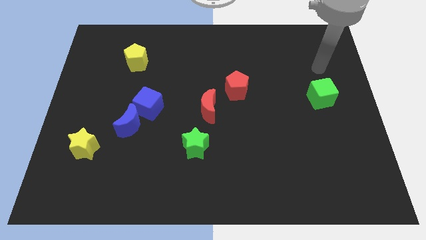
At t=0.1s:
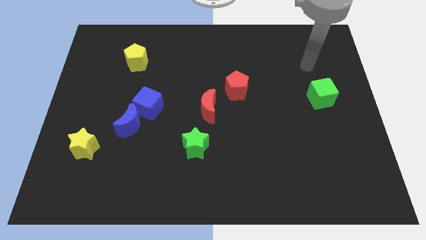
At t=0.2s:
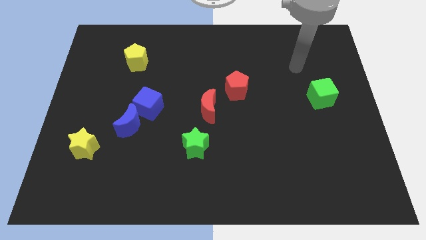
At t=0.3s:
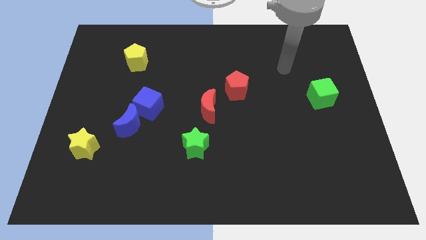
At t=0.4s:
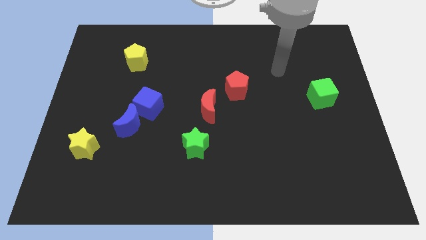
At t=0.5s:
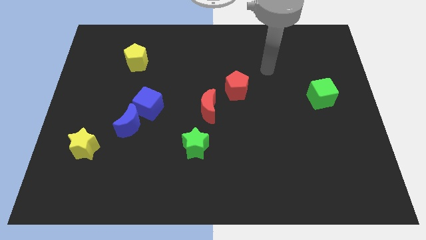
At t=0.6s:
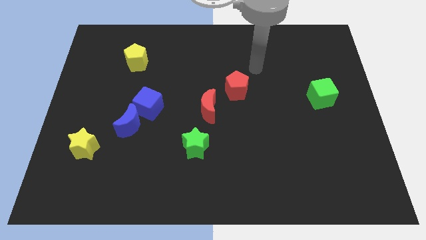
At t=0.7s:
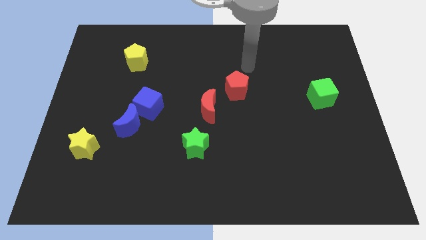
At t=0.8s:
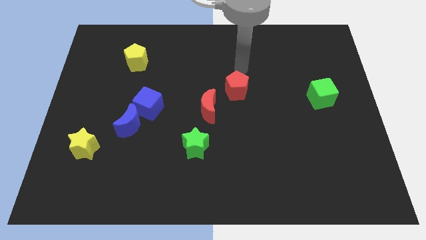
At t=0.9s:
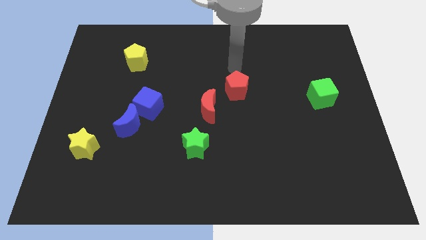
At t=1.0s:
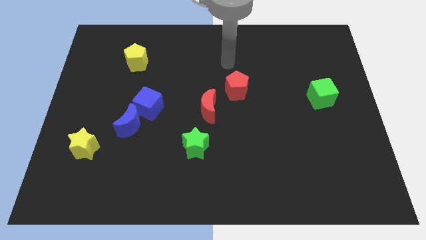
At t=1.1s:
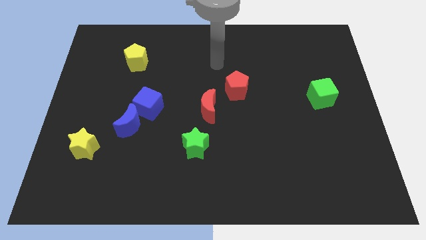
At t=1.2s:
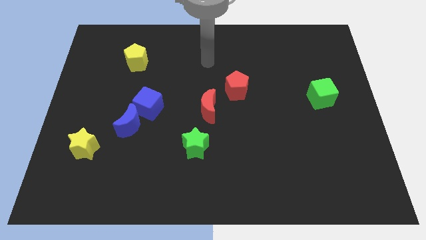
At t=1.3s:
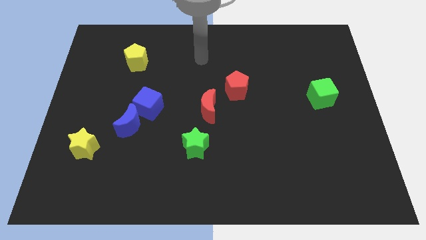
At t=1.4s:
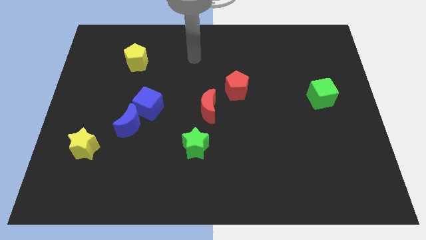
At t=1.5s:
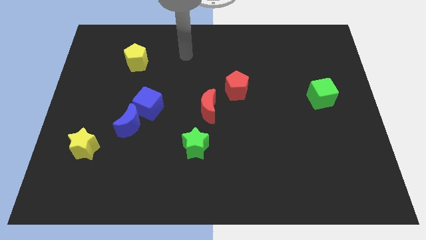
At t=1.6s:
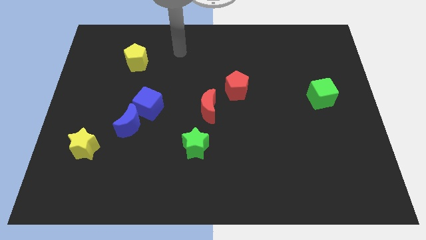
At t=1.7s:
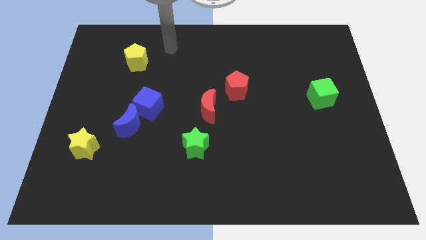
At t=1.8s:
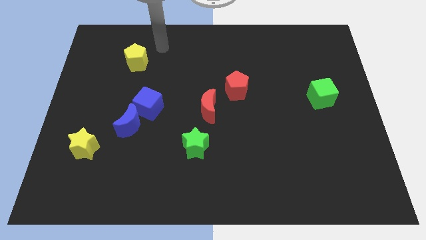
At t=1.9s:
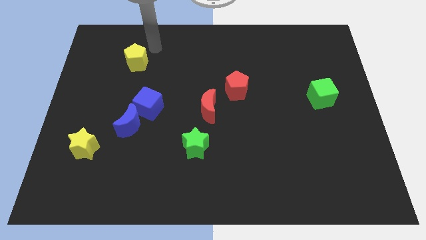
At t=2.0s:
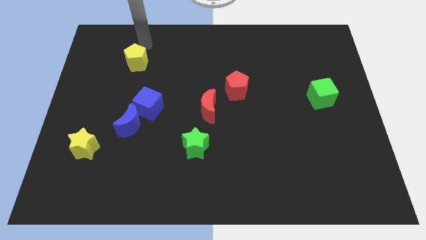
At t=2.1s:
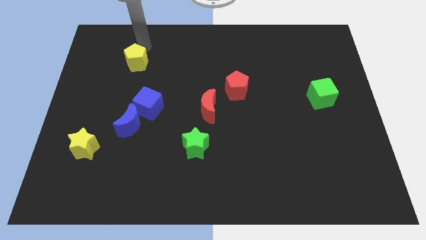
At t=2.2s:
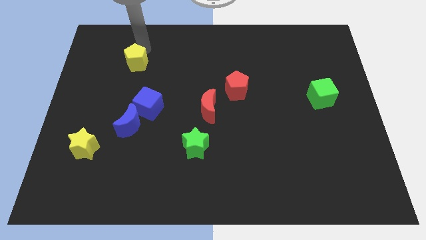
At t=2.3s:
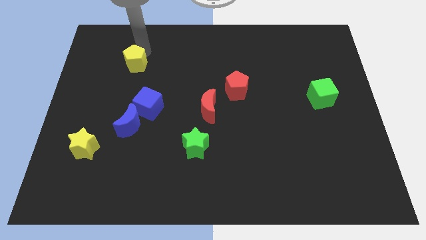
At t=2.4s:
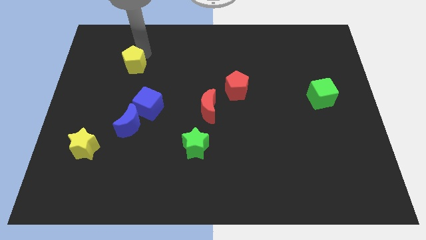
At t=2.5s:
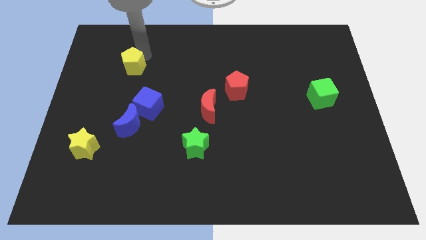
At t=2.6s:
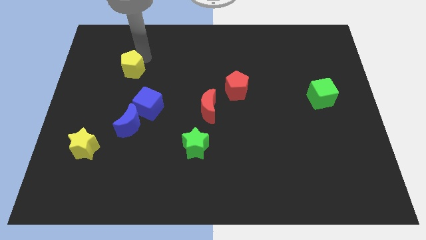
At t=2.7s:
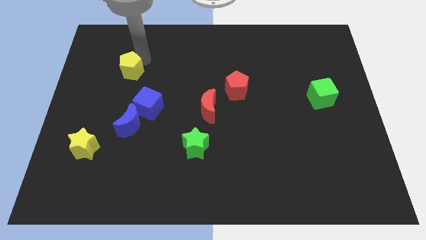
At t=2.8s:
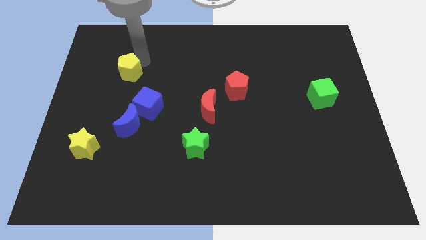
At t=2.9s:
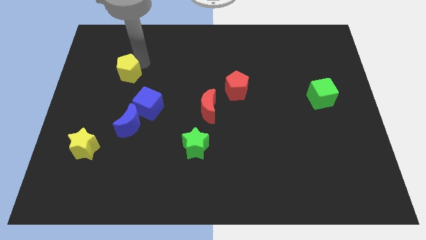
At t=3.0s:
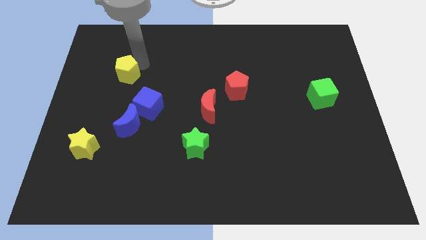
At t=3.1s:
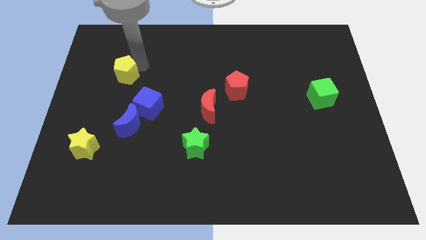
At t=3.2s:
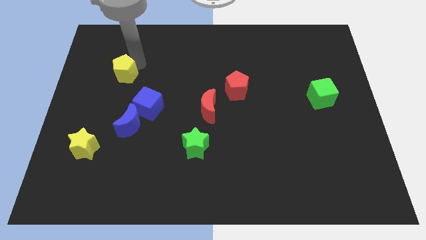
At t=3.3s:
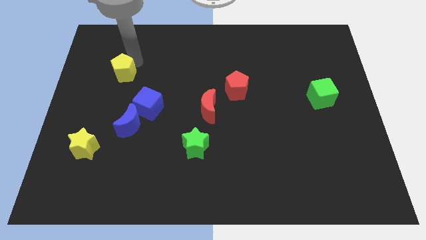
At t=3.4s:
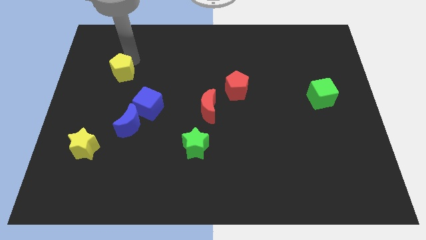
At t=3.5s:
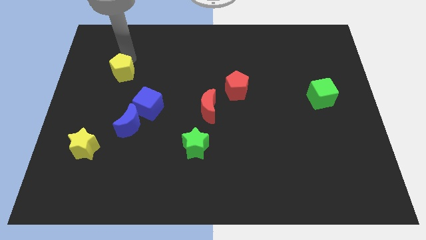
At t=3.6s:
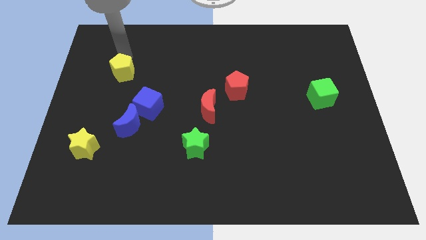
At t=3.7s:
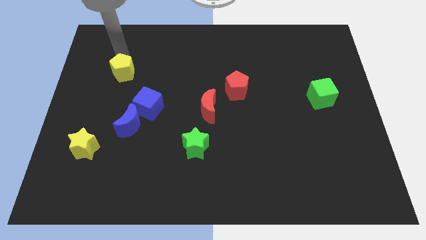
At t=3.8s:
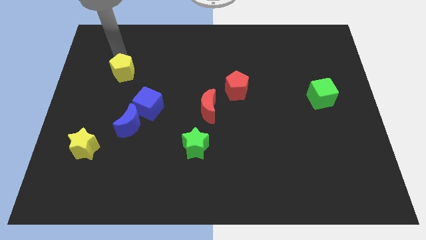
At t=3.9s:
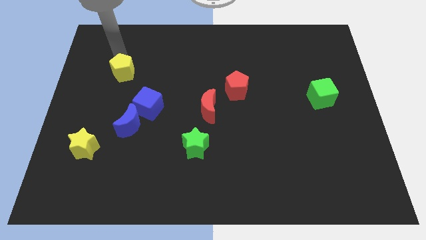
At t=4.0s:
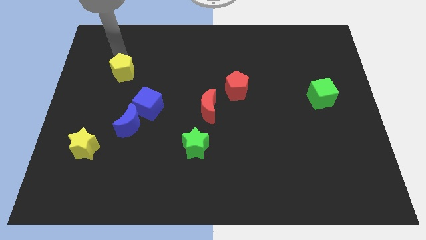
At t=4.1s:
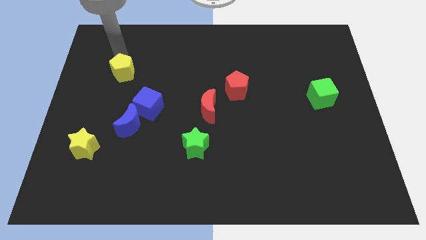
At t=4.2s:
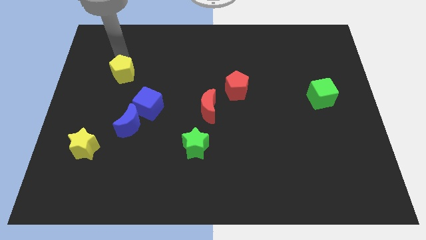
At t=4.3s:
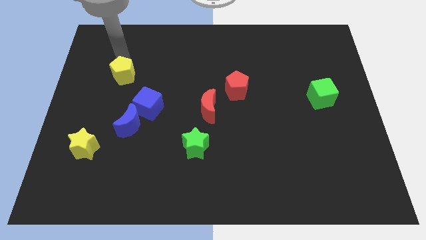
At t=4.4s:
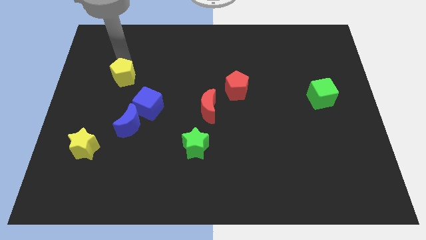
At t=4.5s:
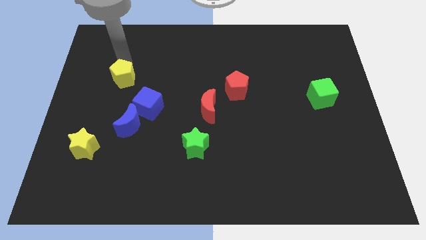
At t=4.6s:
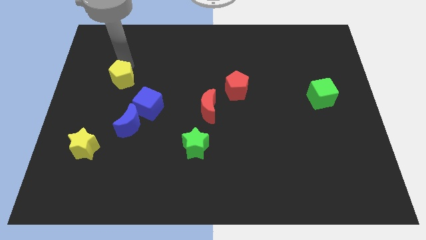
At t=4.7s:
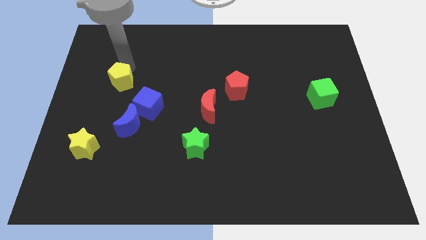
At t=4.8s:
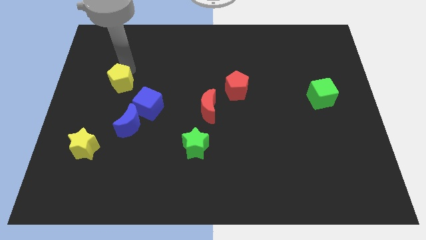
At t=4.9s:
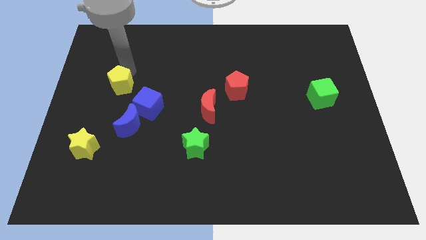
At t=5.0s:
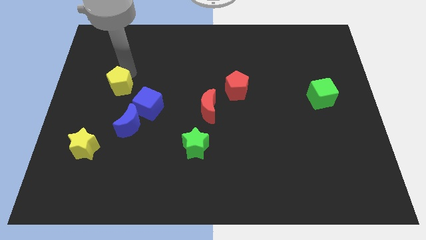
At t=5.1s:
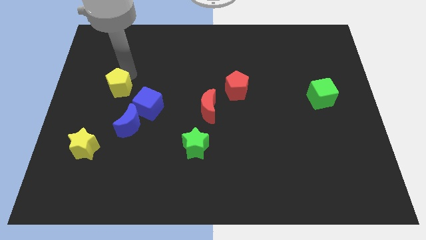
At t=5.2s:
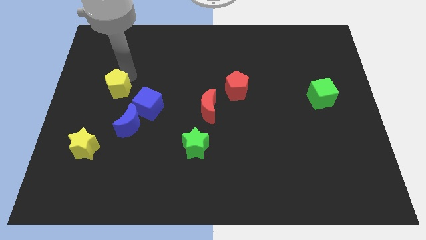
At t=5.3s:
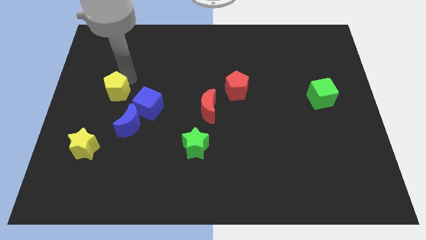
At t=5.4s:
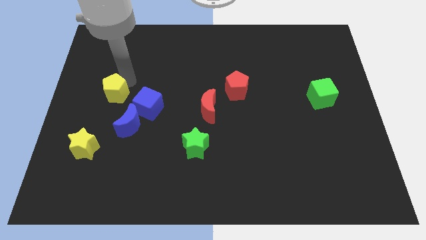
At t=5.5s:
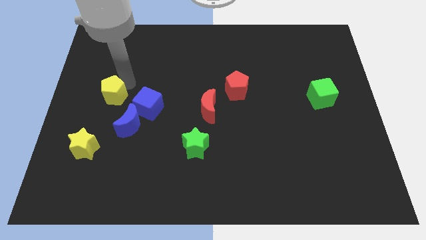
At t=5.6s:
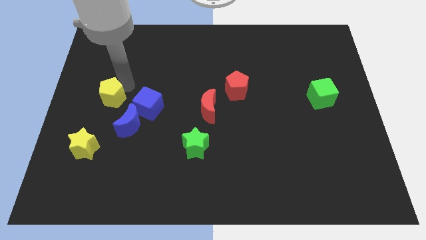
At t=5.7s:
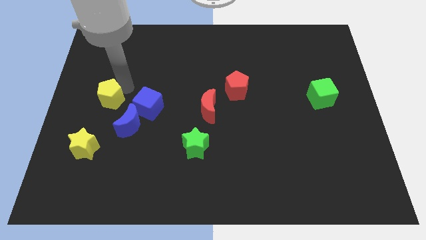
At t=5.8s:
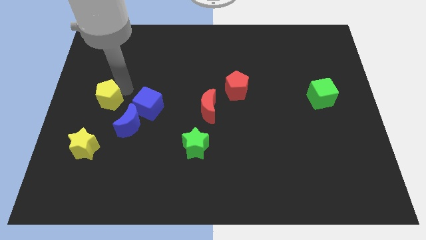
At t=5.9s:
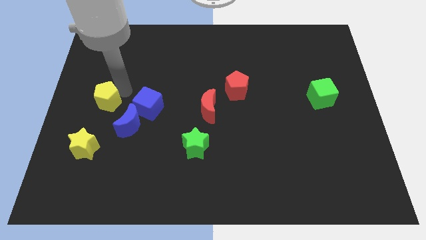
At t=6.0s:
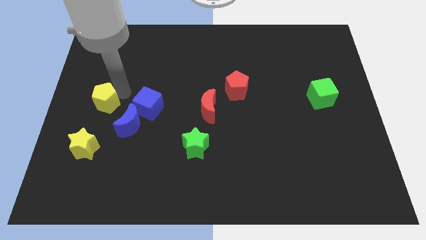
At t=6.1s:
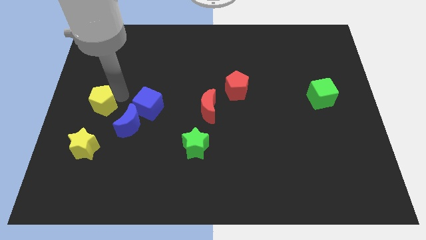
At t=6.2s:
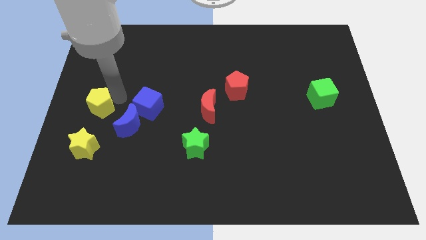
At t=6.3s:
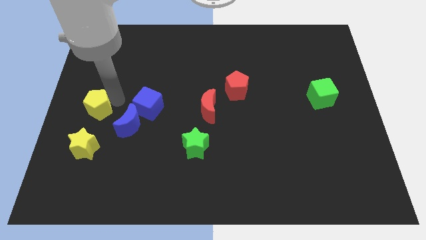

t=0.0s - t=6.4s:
move the yellow pentagon just left of the blue moon
